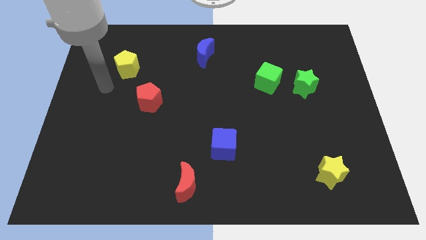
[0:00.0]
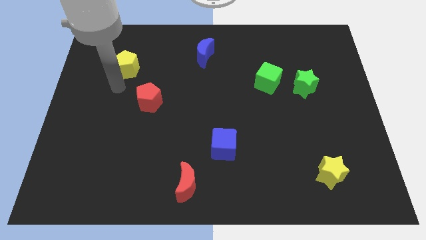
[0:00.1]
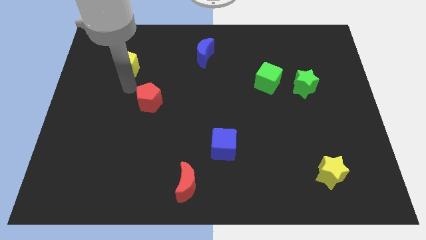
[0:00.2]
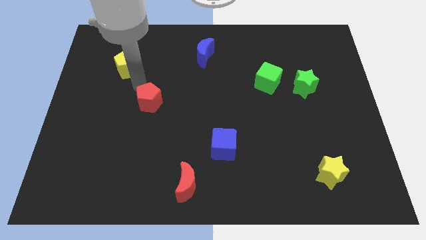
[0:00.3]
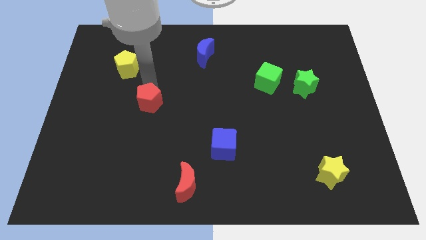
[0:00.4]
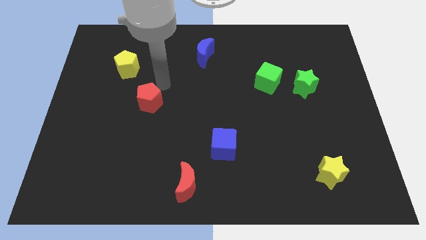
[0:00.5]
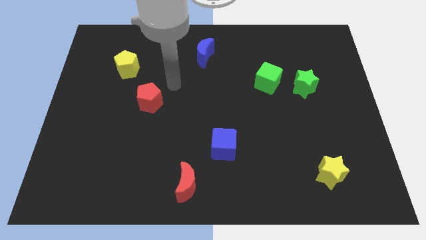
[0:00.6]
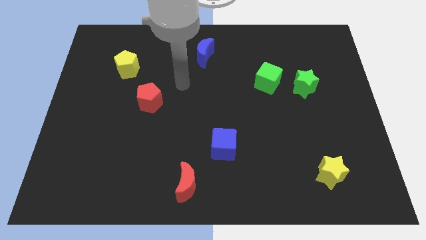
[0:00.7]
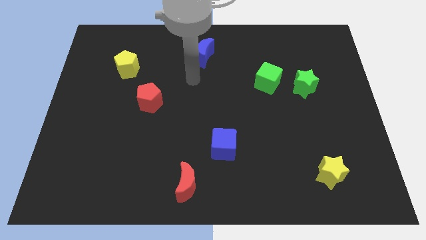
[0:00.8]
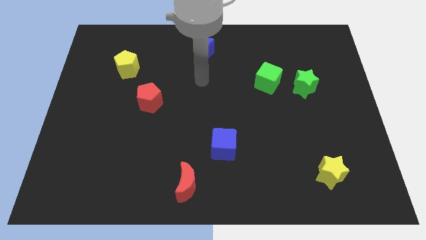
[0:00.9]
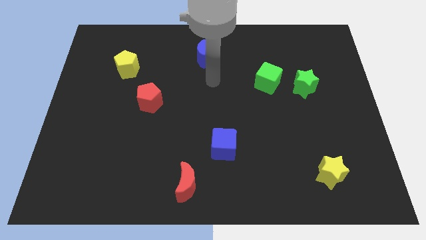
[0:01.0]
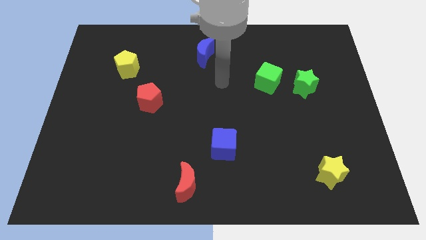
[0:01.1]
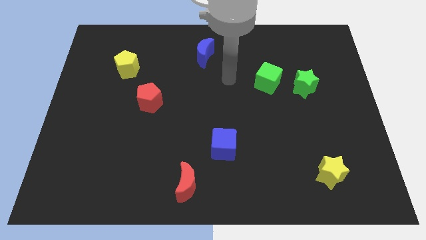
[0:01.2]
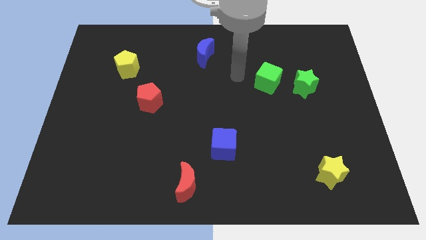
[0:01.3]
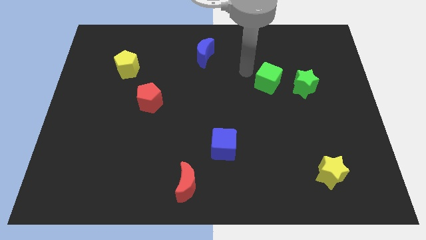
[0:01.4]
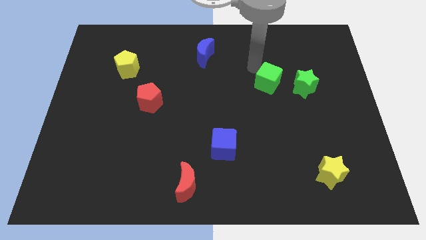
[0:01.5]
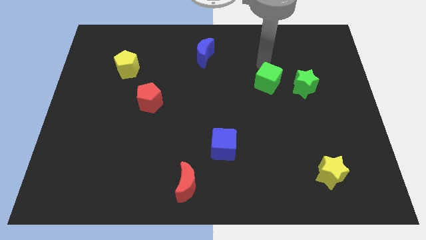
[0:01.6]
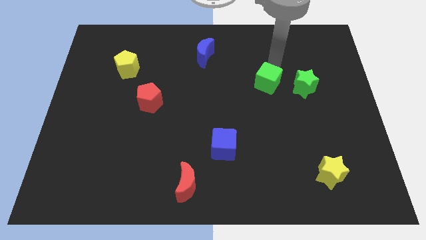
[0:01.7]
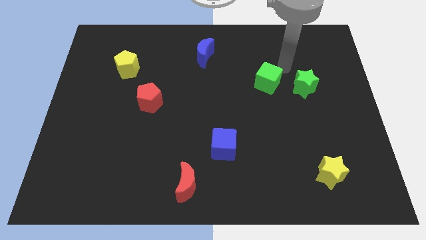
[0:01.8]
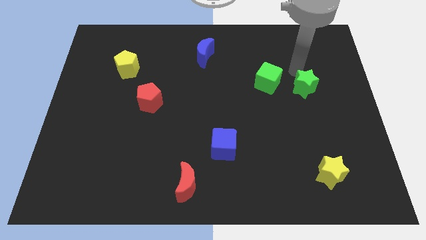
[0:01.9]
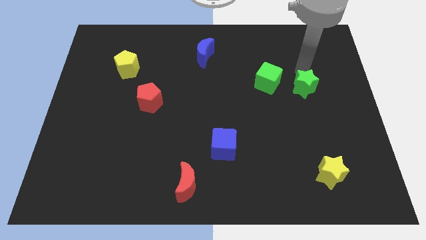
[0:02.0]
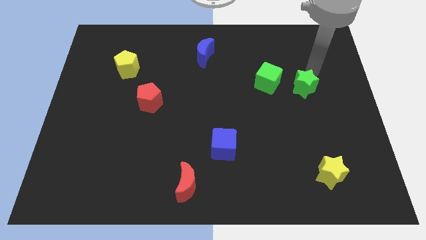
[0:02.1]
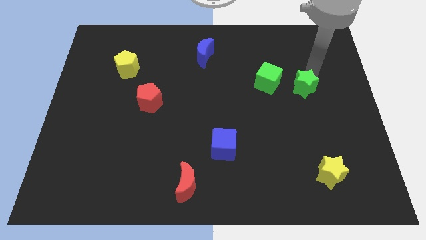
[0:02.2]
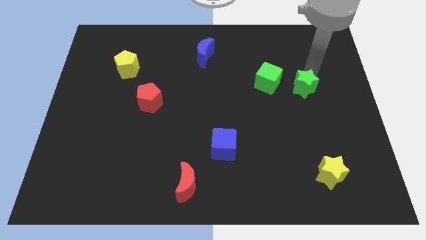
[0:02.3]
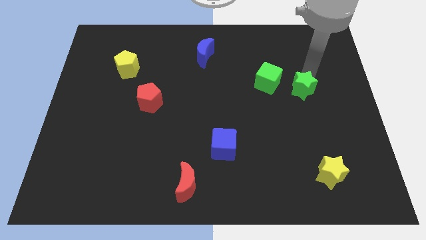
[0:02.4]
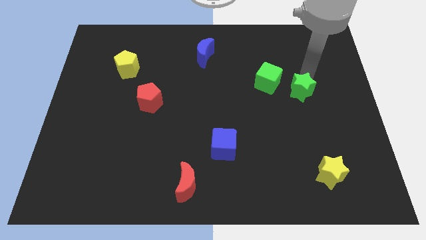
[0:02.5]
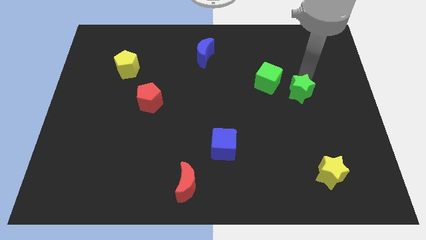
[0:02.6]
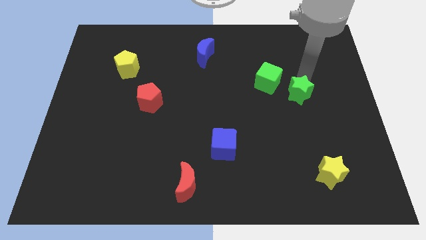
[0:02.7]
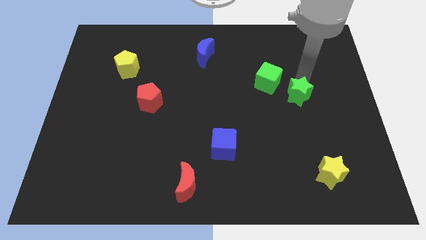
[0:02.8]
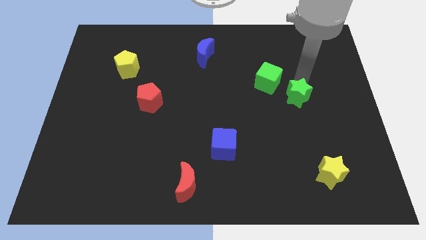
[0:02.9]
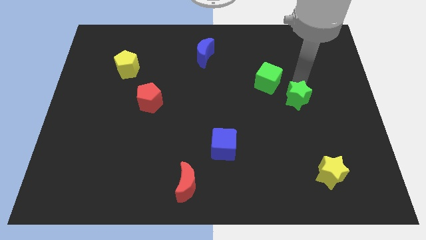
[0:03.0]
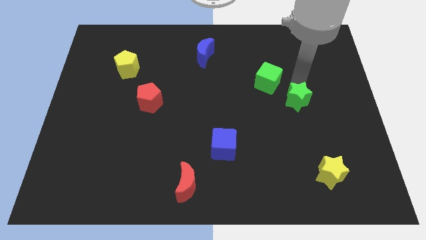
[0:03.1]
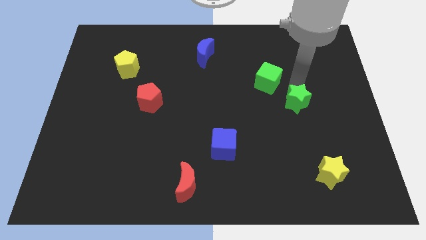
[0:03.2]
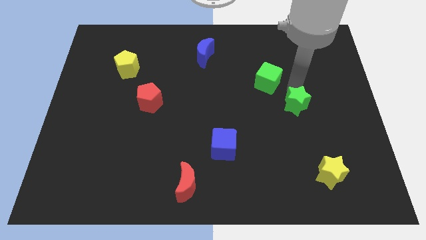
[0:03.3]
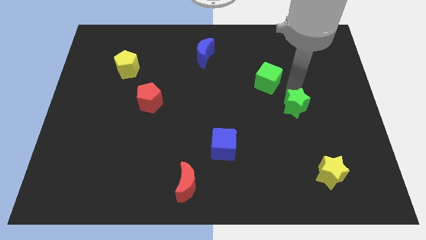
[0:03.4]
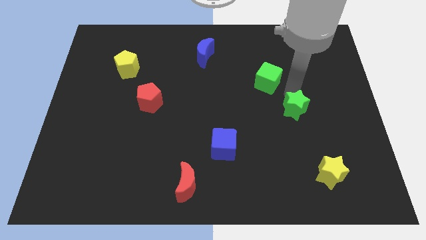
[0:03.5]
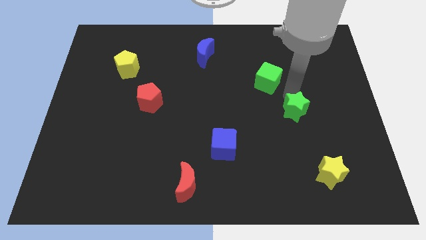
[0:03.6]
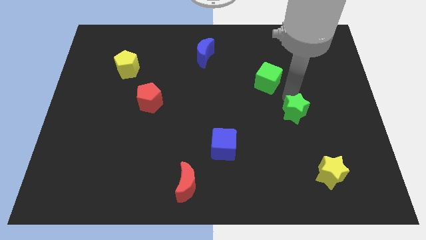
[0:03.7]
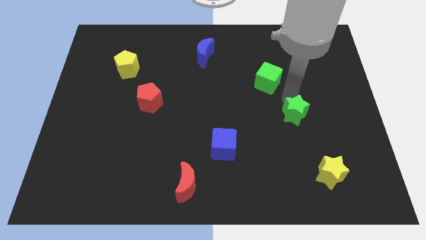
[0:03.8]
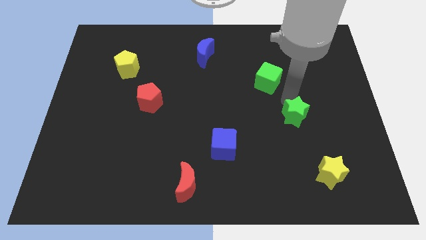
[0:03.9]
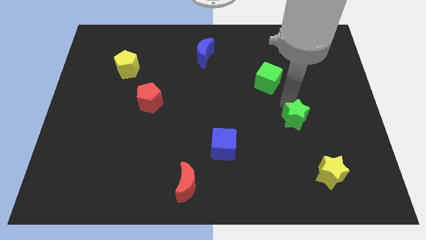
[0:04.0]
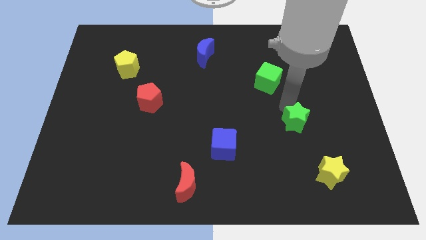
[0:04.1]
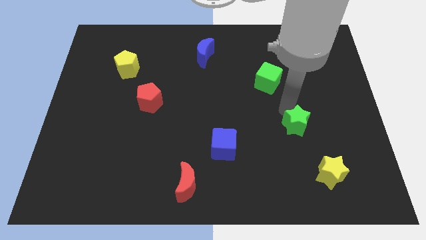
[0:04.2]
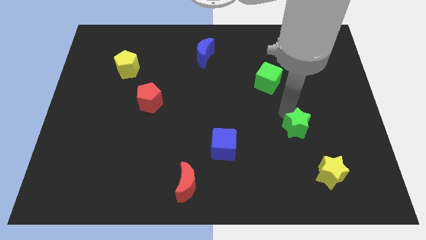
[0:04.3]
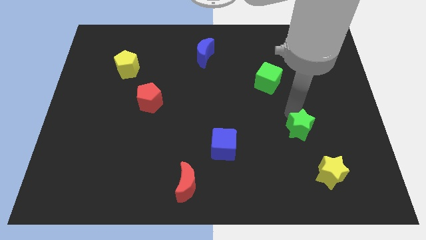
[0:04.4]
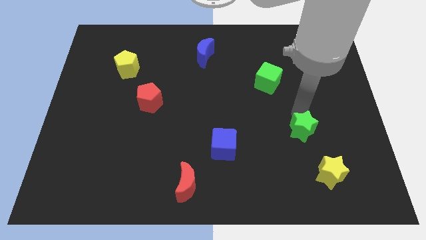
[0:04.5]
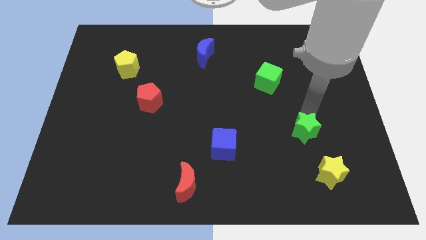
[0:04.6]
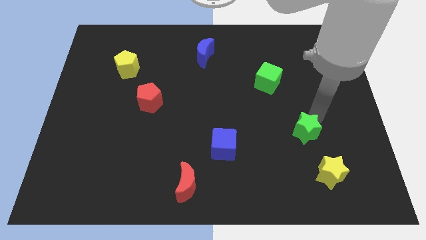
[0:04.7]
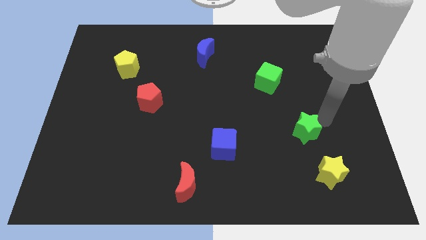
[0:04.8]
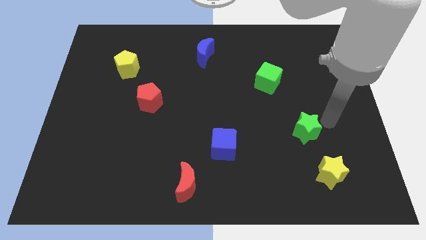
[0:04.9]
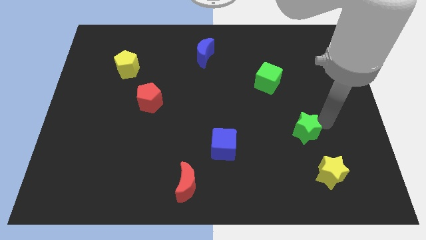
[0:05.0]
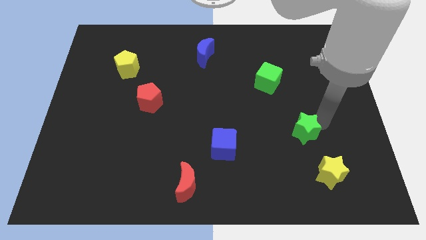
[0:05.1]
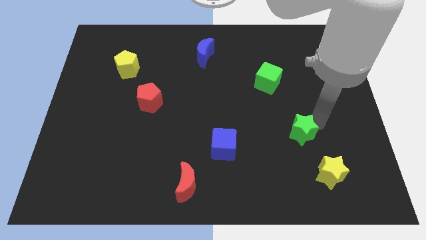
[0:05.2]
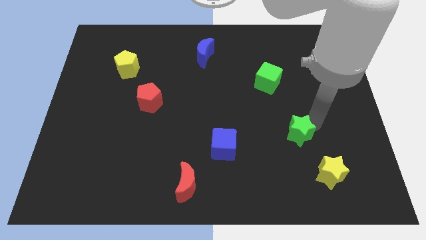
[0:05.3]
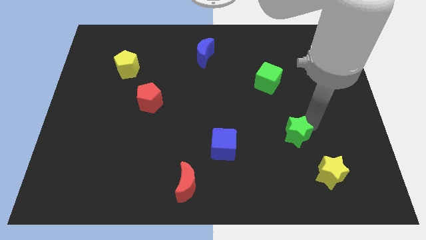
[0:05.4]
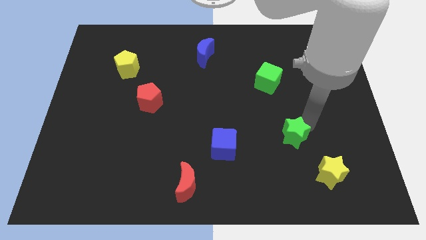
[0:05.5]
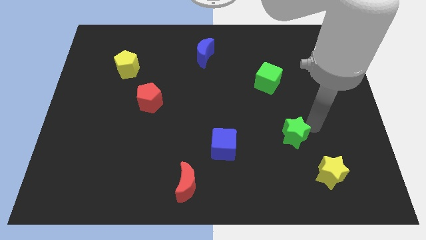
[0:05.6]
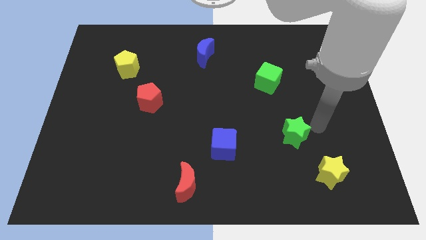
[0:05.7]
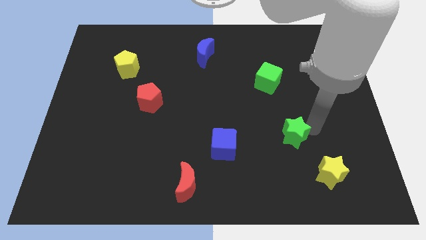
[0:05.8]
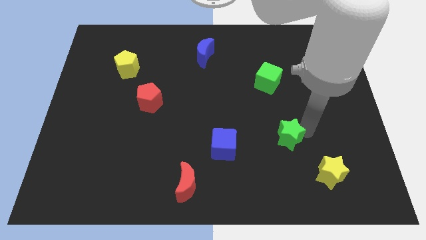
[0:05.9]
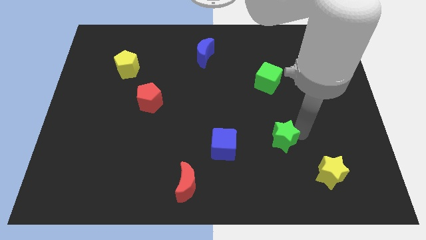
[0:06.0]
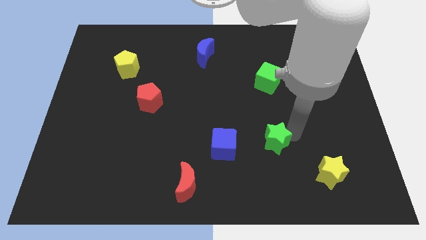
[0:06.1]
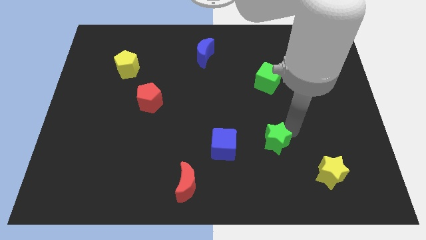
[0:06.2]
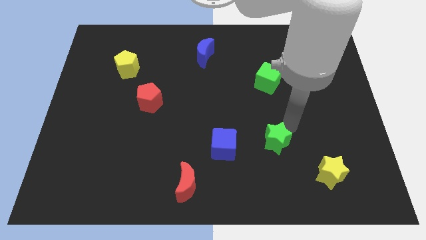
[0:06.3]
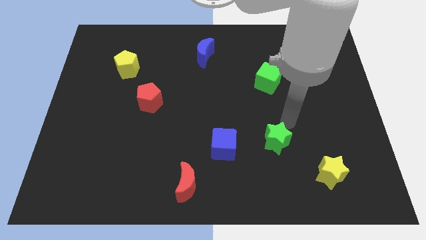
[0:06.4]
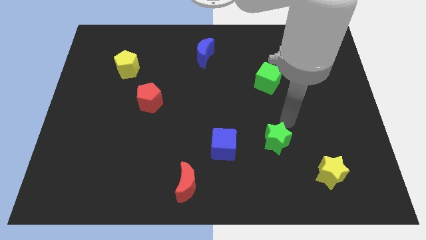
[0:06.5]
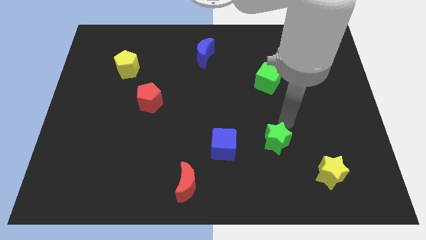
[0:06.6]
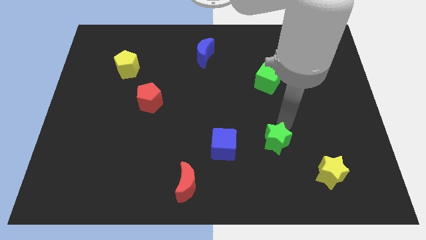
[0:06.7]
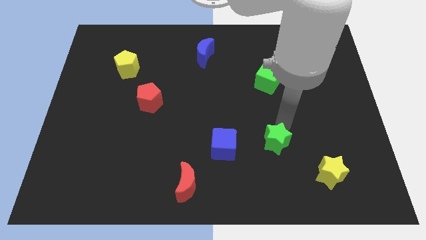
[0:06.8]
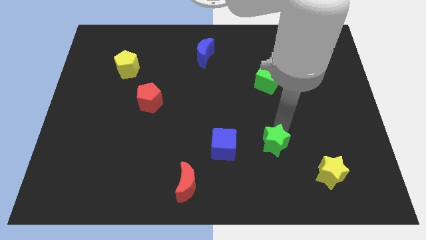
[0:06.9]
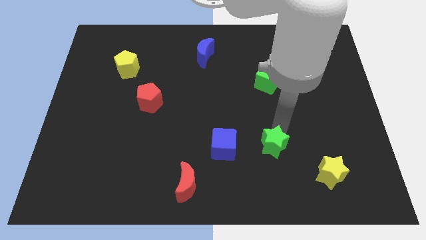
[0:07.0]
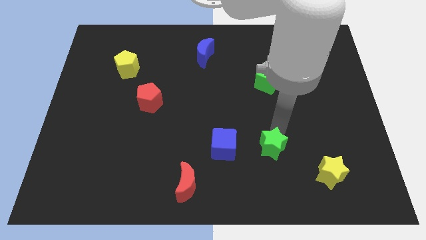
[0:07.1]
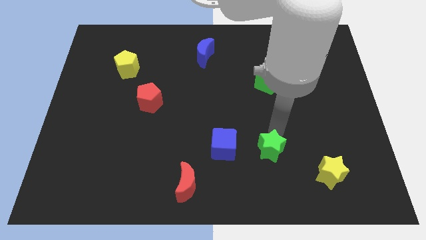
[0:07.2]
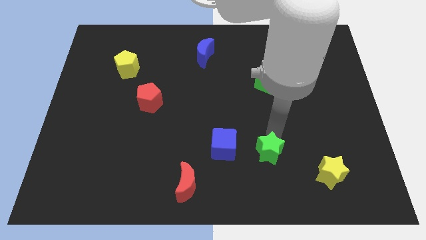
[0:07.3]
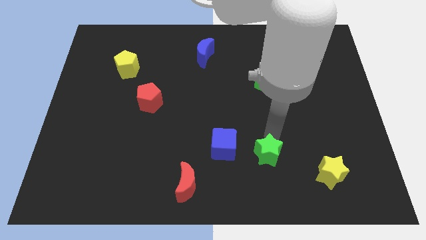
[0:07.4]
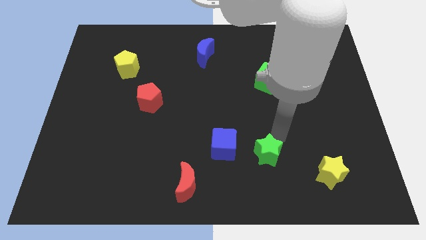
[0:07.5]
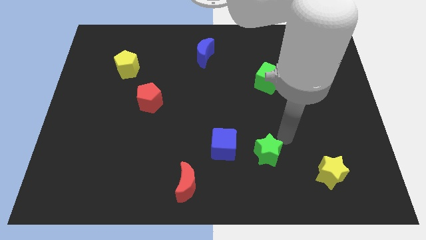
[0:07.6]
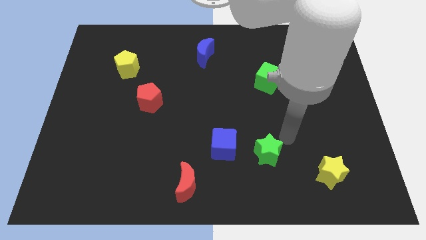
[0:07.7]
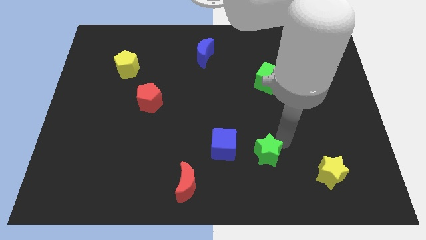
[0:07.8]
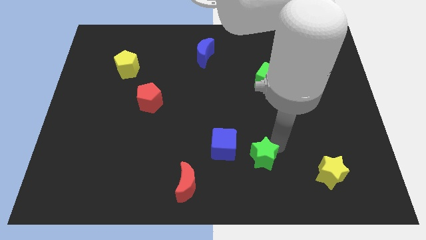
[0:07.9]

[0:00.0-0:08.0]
push the green star to the bottom right side of the blue cube
